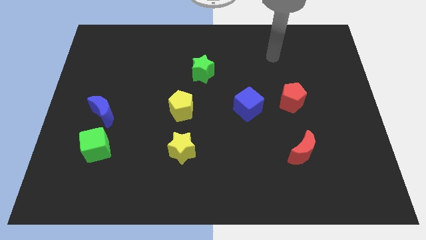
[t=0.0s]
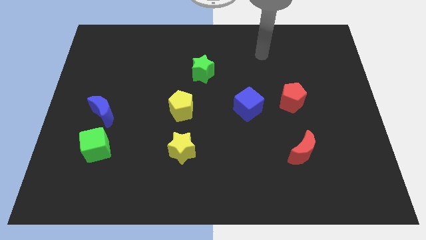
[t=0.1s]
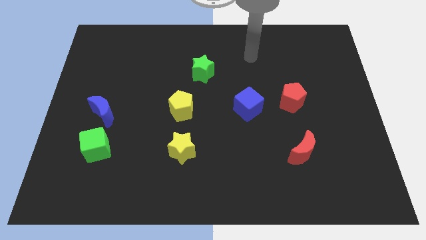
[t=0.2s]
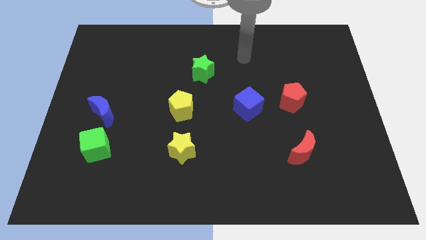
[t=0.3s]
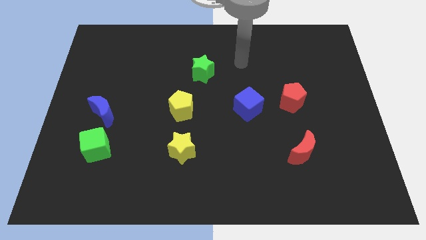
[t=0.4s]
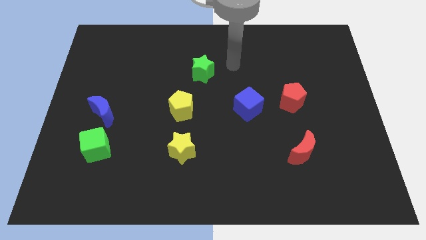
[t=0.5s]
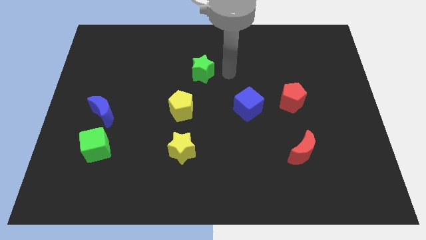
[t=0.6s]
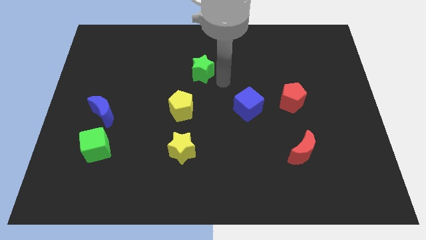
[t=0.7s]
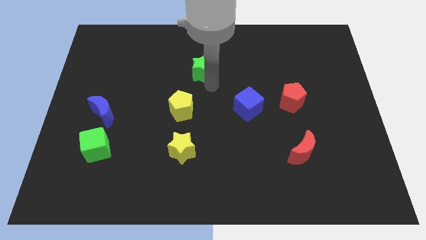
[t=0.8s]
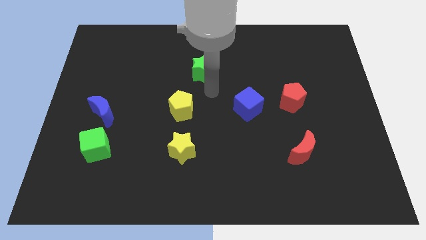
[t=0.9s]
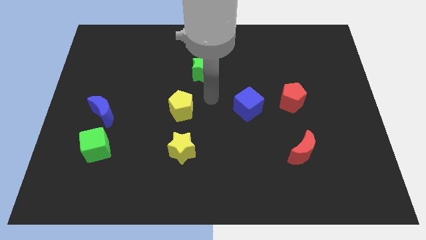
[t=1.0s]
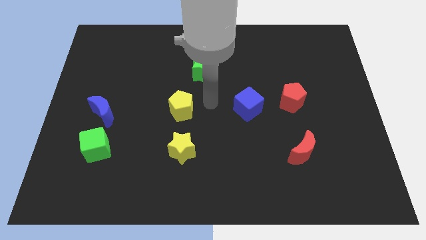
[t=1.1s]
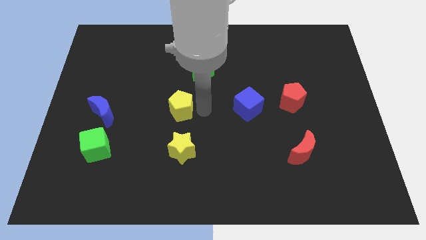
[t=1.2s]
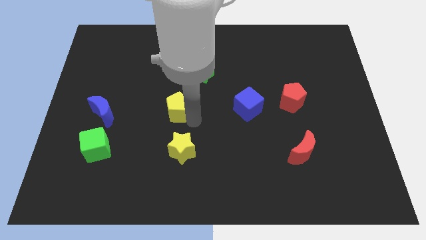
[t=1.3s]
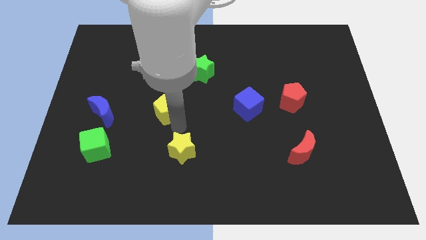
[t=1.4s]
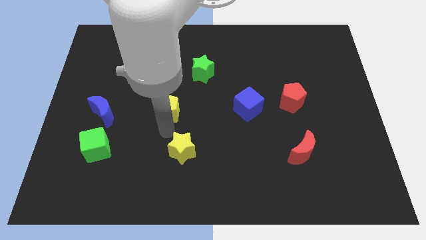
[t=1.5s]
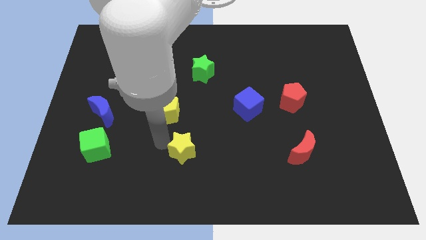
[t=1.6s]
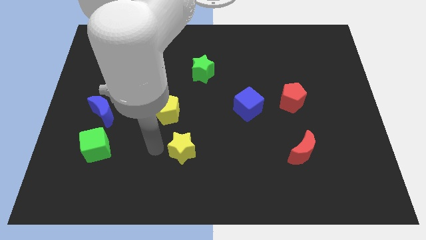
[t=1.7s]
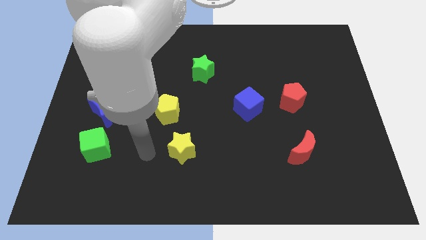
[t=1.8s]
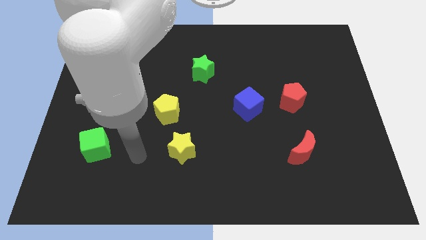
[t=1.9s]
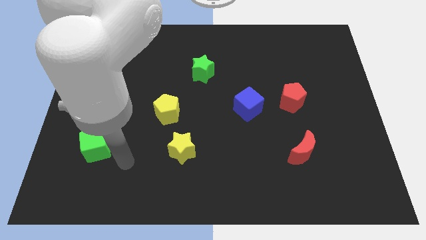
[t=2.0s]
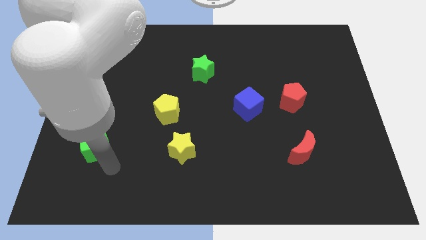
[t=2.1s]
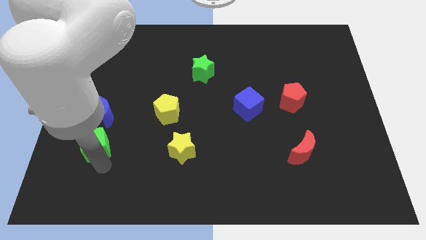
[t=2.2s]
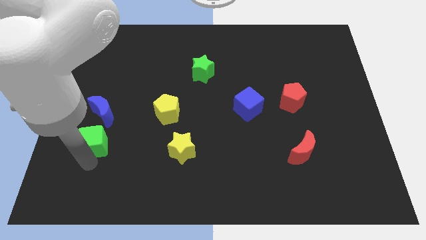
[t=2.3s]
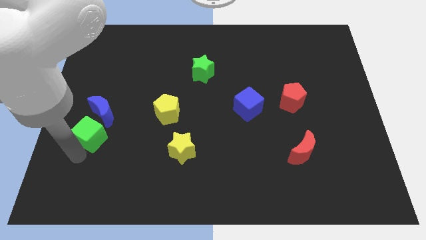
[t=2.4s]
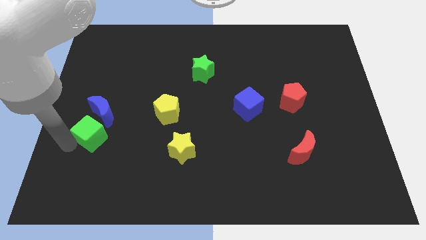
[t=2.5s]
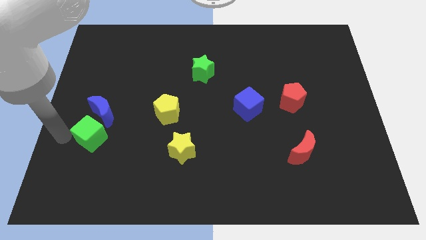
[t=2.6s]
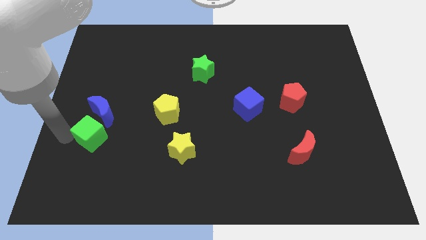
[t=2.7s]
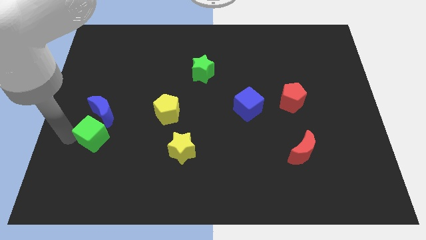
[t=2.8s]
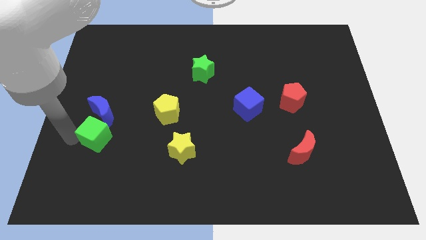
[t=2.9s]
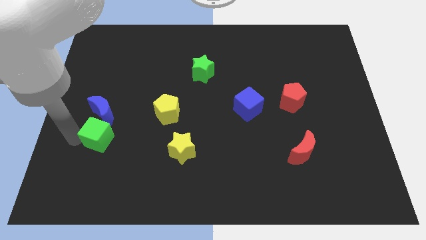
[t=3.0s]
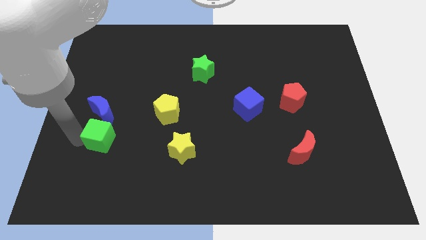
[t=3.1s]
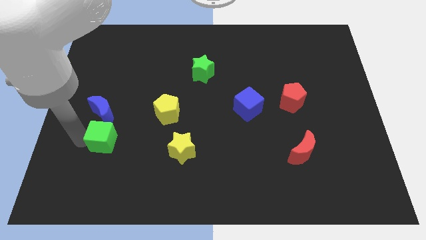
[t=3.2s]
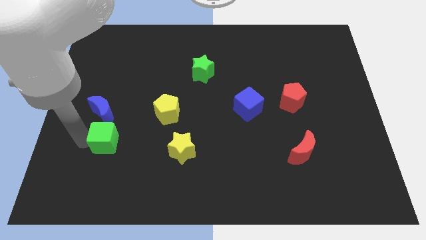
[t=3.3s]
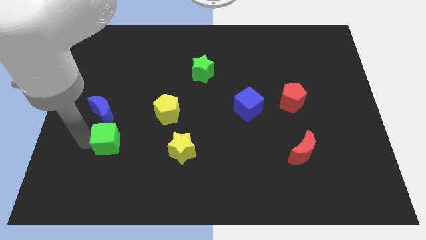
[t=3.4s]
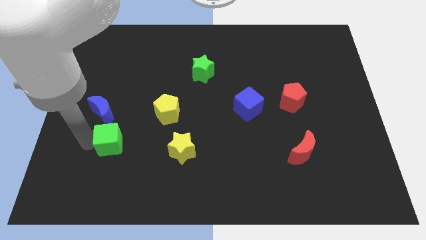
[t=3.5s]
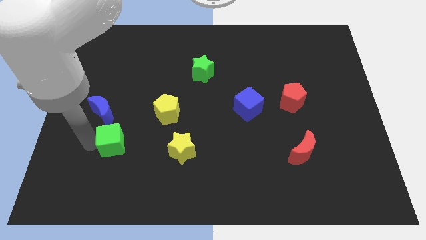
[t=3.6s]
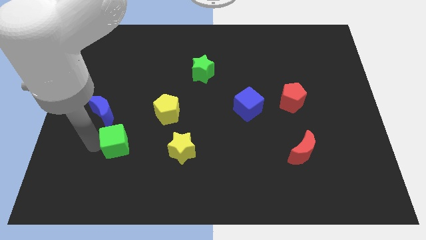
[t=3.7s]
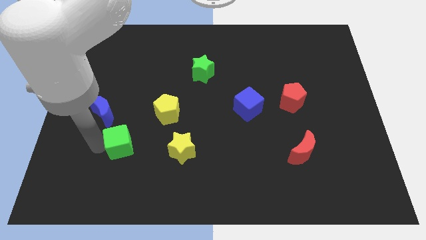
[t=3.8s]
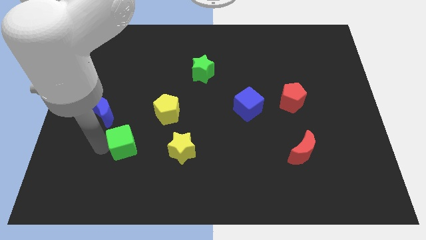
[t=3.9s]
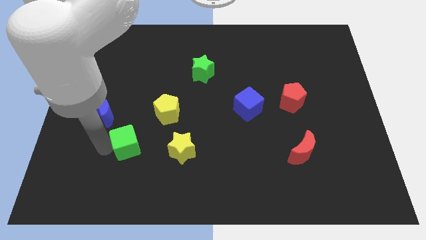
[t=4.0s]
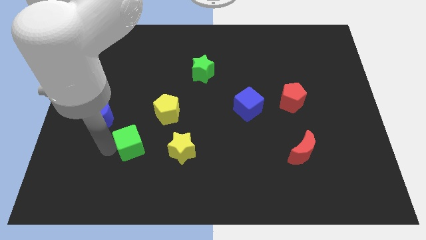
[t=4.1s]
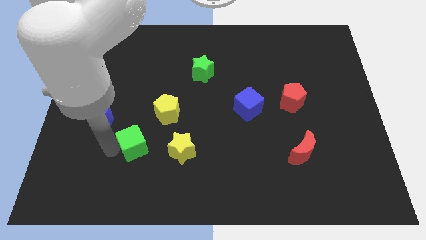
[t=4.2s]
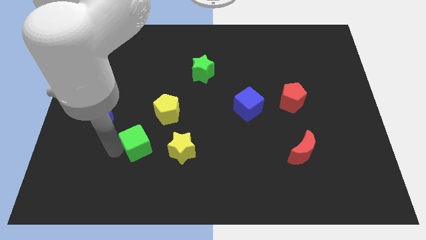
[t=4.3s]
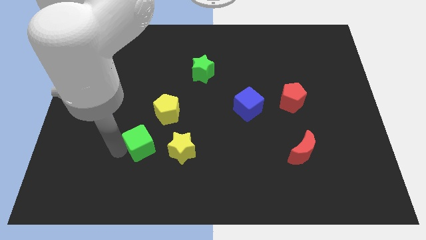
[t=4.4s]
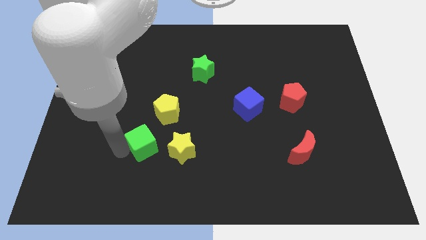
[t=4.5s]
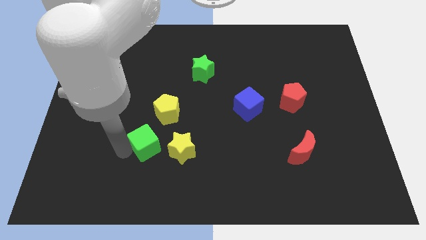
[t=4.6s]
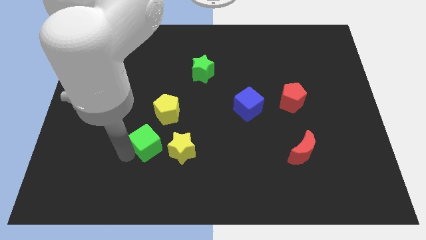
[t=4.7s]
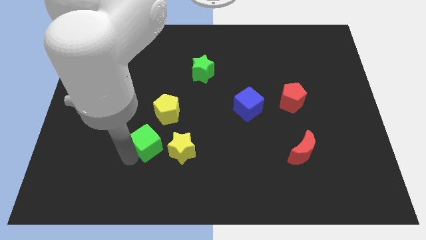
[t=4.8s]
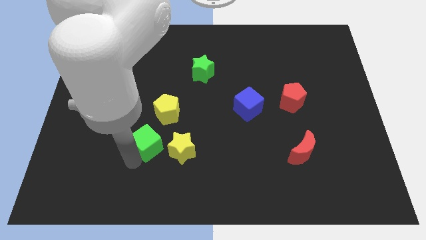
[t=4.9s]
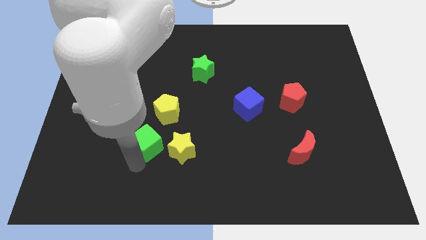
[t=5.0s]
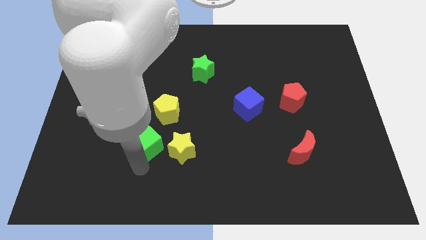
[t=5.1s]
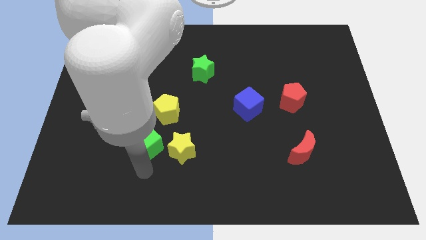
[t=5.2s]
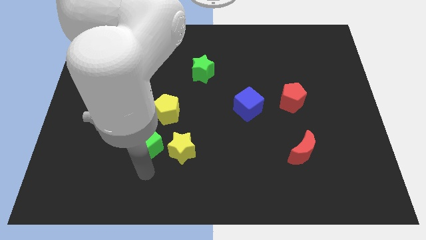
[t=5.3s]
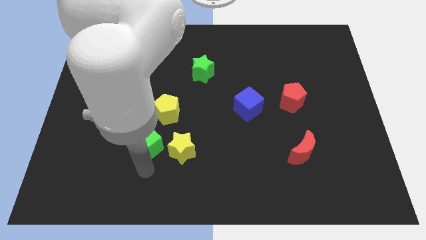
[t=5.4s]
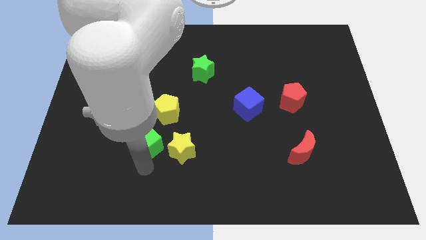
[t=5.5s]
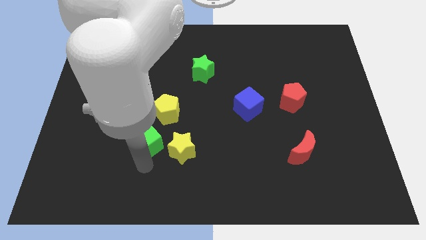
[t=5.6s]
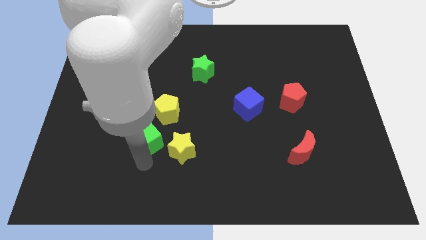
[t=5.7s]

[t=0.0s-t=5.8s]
push the green cube upwards and right diagonally somewhat

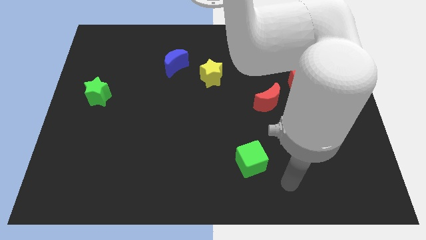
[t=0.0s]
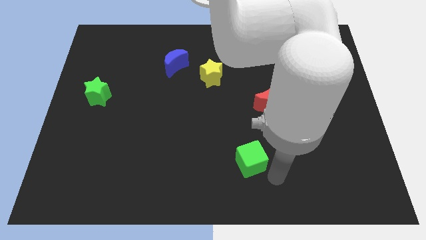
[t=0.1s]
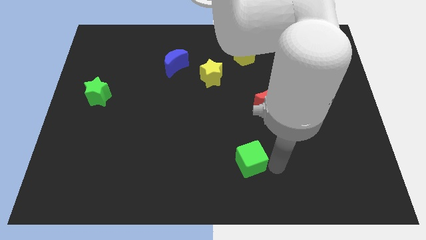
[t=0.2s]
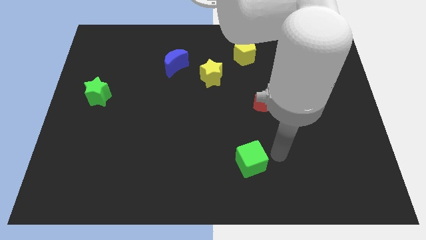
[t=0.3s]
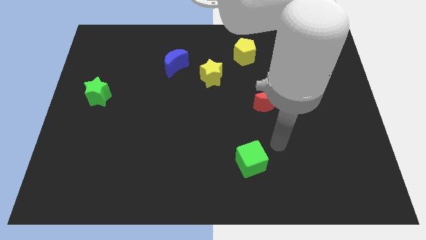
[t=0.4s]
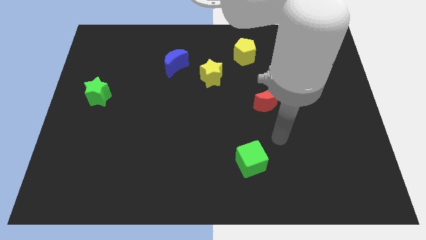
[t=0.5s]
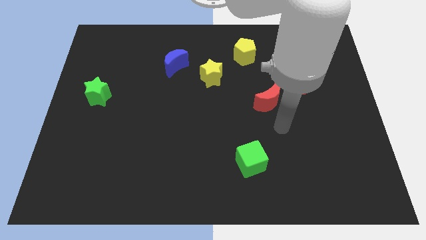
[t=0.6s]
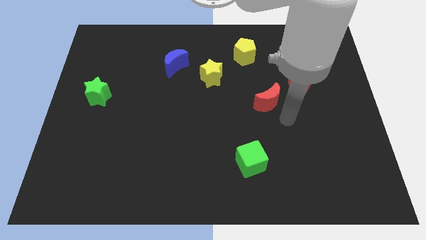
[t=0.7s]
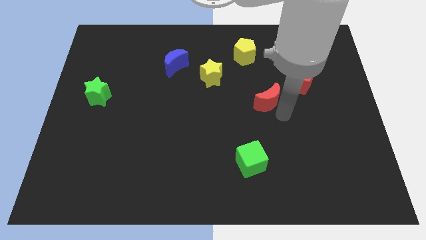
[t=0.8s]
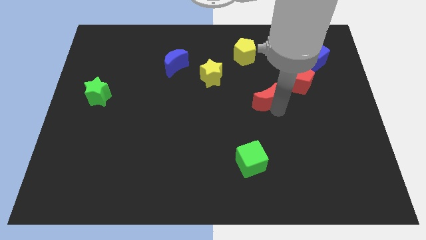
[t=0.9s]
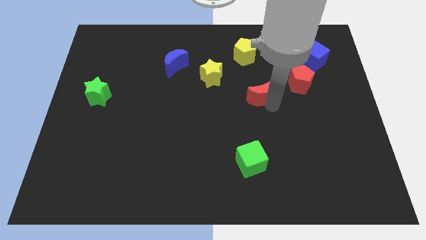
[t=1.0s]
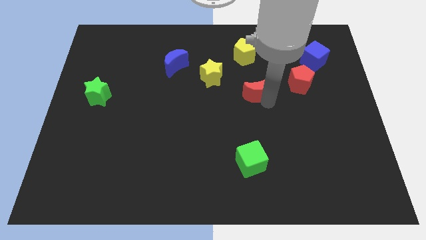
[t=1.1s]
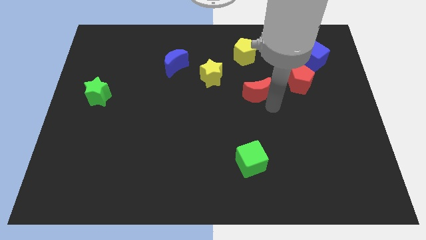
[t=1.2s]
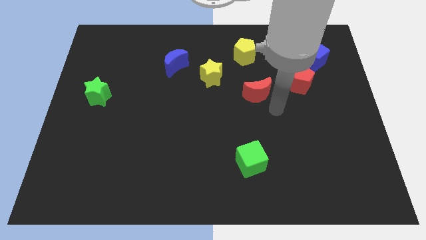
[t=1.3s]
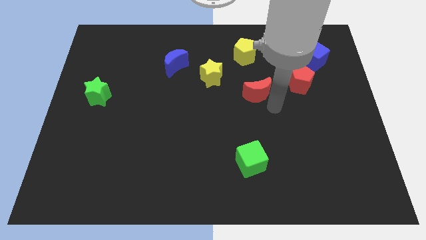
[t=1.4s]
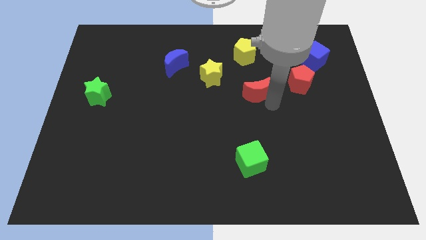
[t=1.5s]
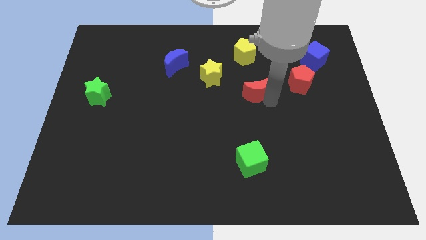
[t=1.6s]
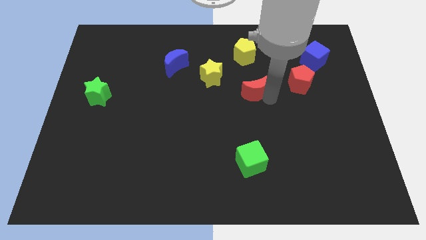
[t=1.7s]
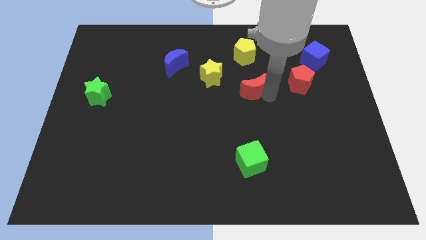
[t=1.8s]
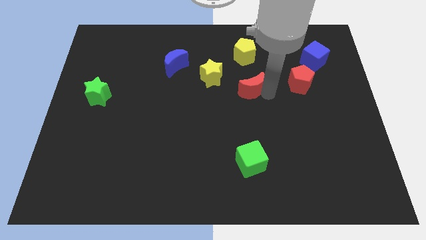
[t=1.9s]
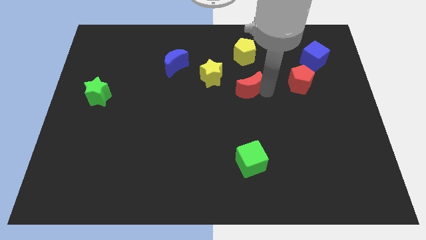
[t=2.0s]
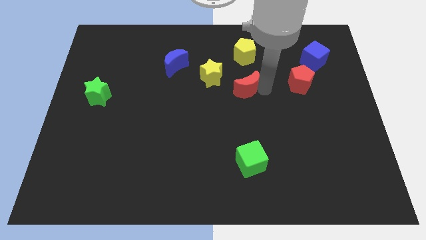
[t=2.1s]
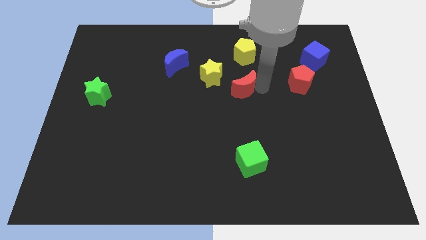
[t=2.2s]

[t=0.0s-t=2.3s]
push the red moon upwards and then left a little

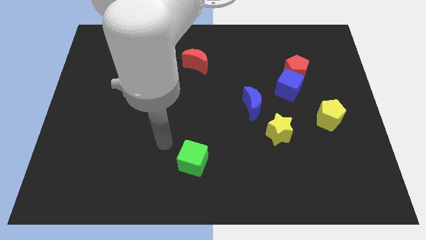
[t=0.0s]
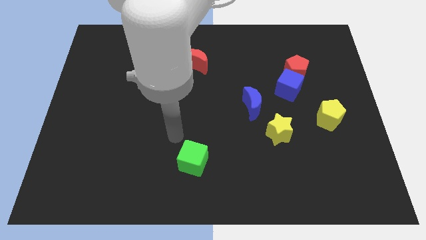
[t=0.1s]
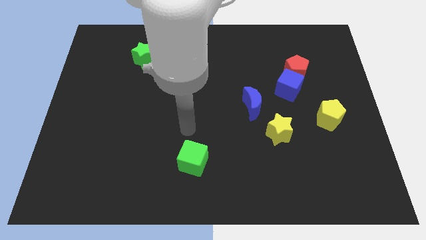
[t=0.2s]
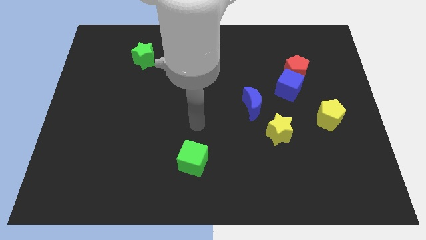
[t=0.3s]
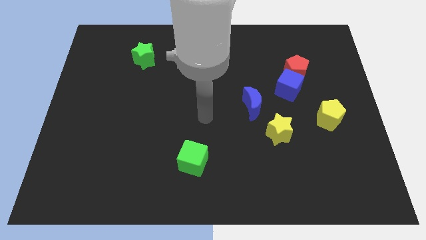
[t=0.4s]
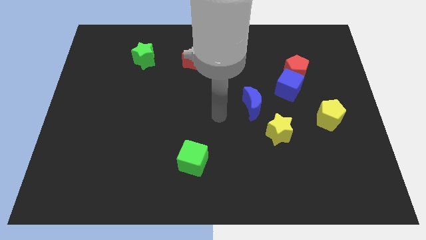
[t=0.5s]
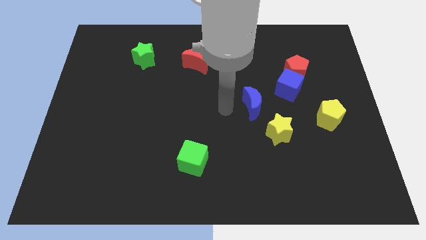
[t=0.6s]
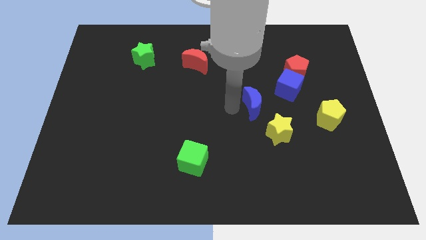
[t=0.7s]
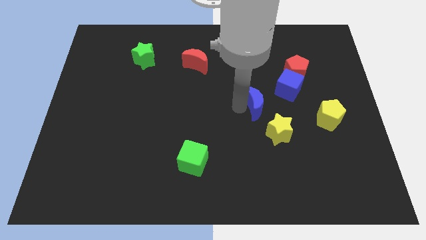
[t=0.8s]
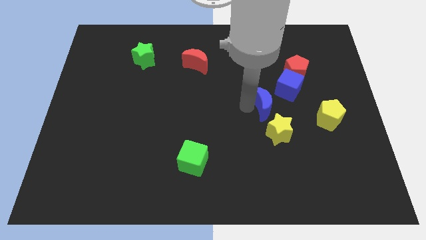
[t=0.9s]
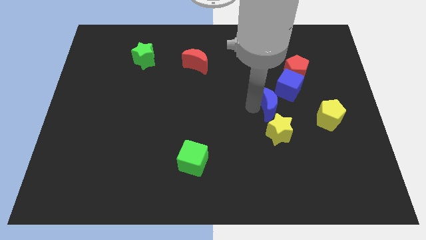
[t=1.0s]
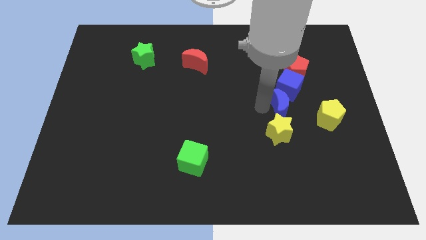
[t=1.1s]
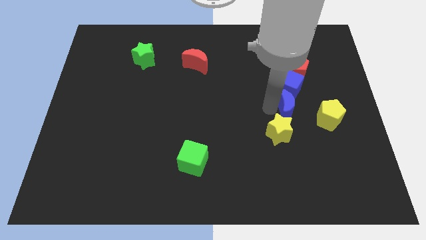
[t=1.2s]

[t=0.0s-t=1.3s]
push the blue moon to the right somewhat
